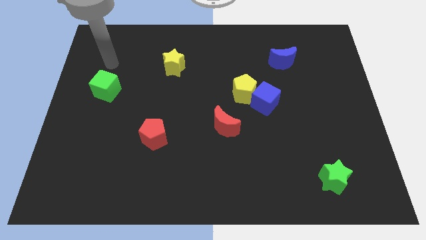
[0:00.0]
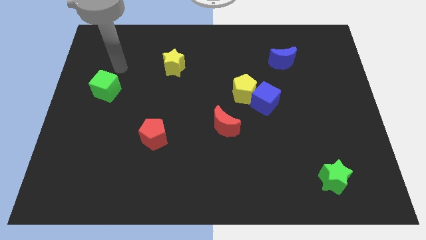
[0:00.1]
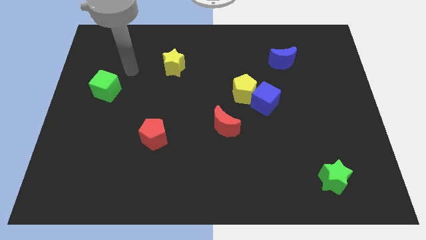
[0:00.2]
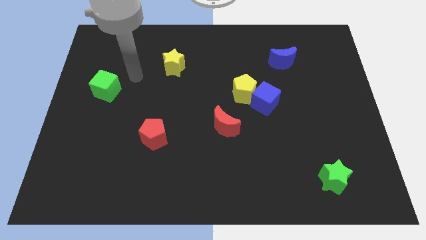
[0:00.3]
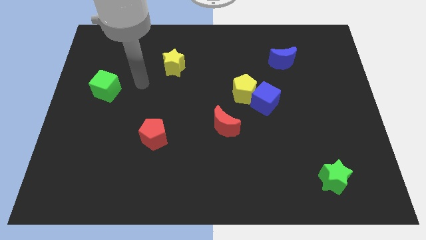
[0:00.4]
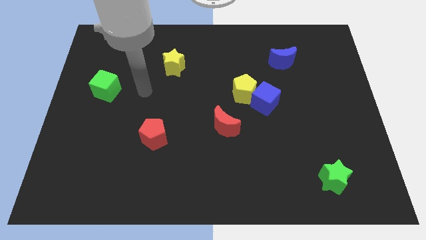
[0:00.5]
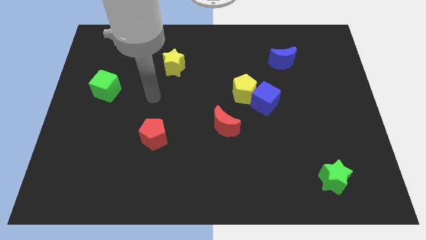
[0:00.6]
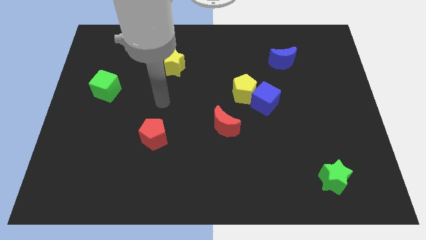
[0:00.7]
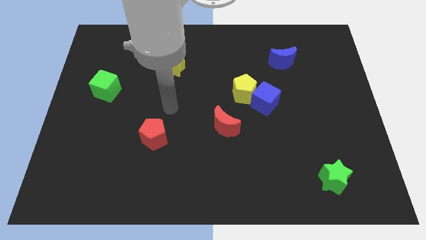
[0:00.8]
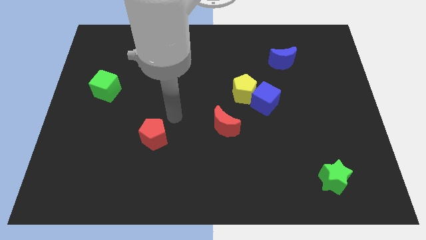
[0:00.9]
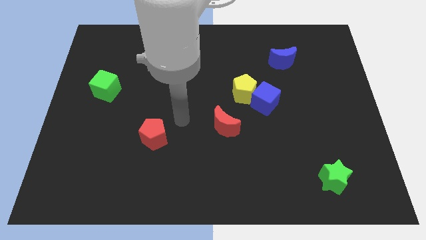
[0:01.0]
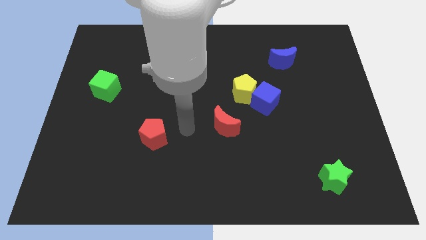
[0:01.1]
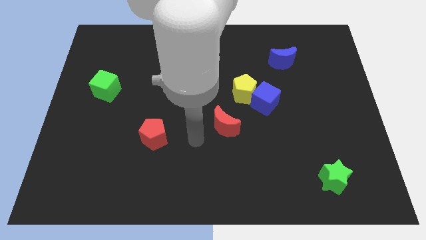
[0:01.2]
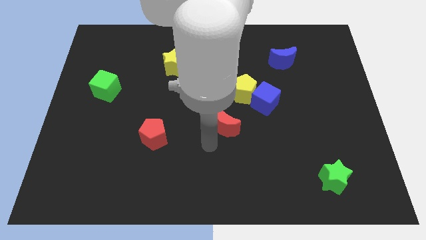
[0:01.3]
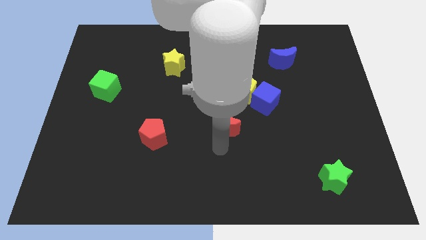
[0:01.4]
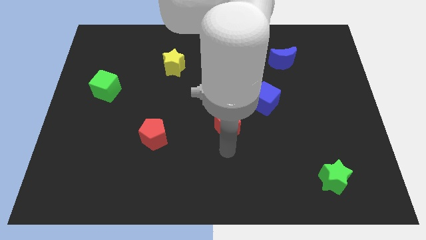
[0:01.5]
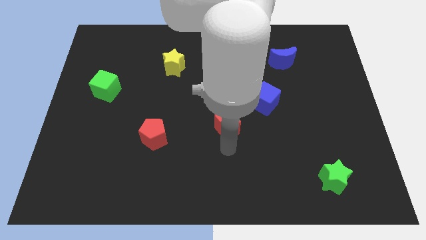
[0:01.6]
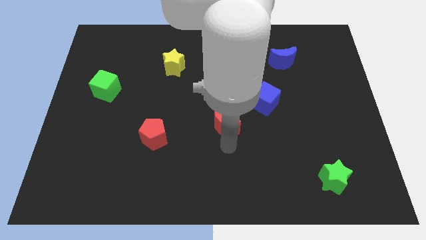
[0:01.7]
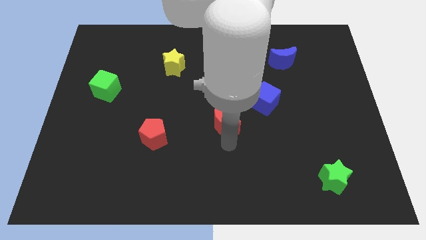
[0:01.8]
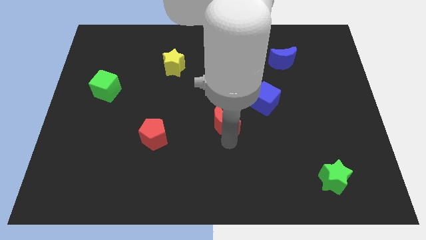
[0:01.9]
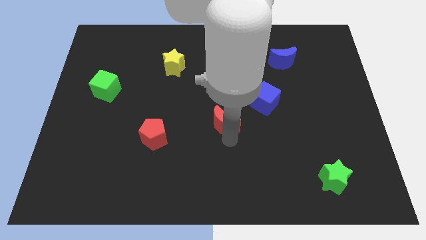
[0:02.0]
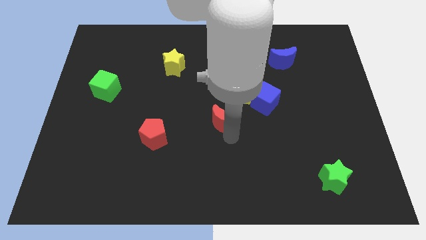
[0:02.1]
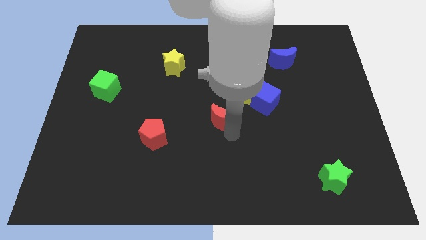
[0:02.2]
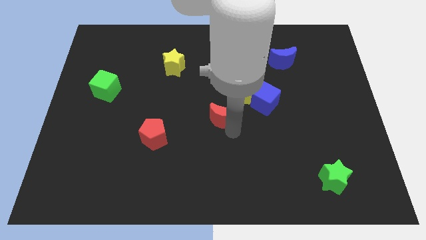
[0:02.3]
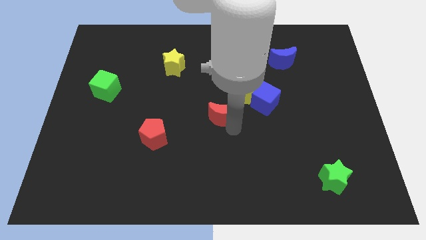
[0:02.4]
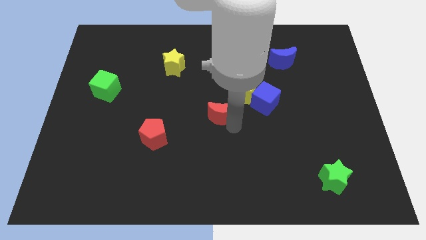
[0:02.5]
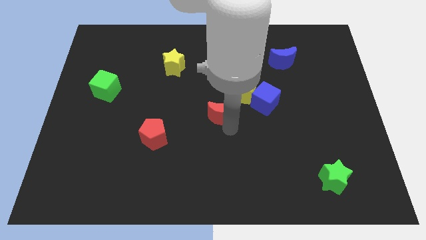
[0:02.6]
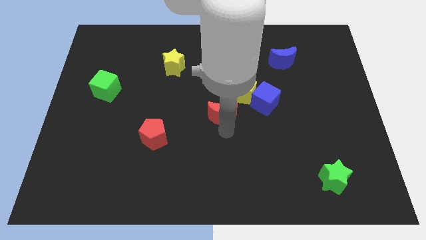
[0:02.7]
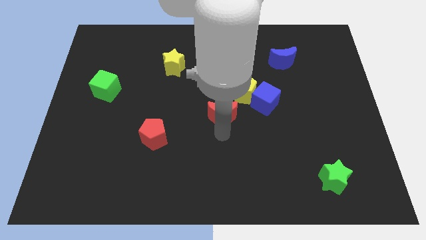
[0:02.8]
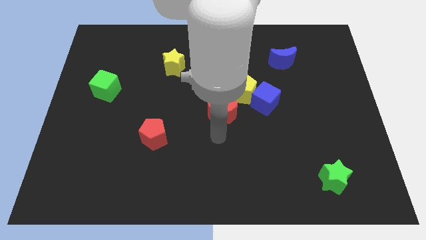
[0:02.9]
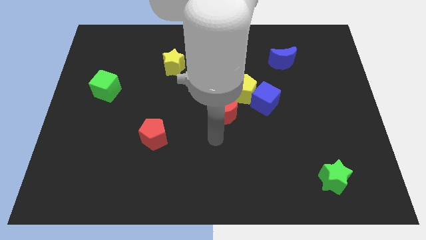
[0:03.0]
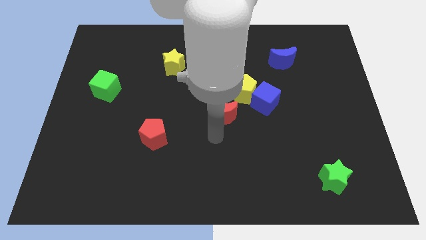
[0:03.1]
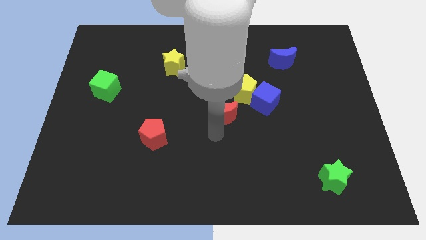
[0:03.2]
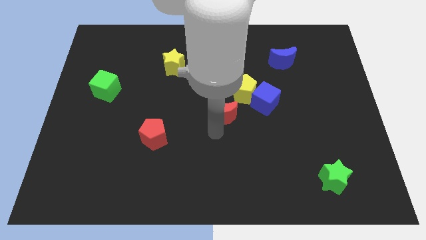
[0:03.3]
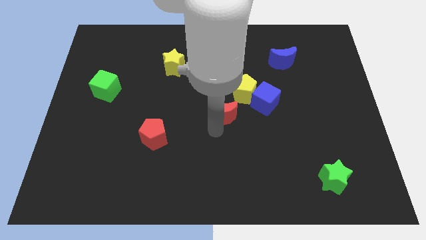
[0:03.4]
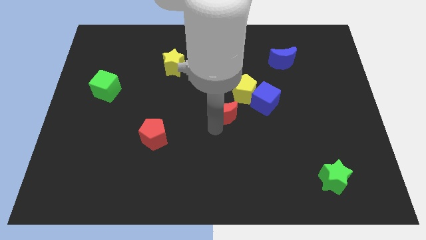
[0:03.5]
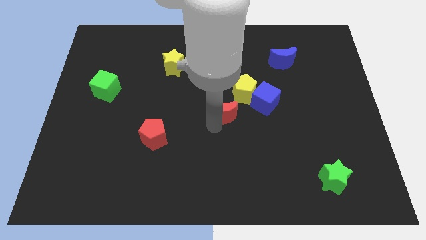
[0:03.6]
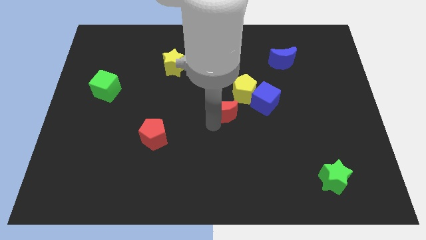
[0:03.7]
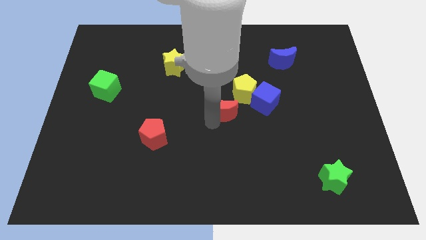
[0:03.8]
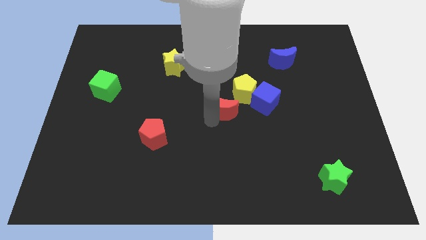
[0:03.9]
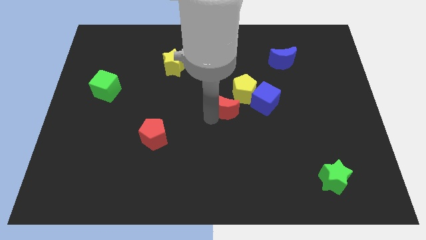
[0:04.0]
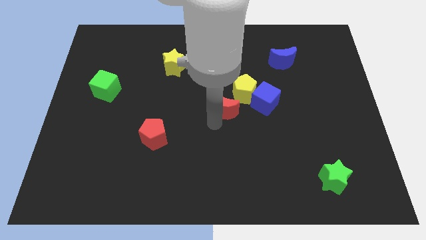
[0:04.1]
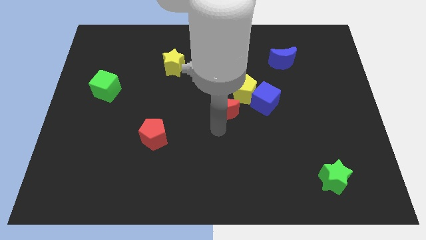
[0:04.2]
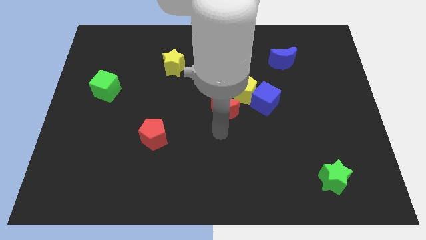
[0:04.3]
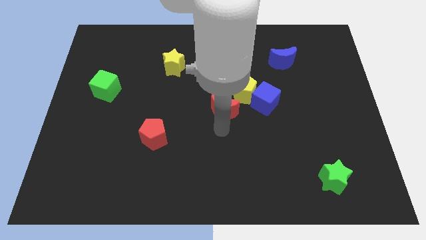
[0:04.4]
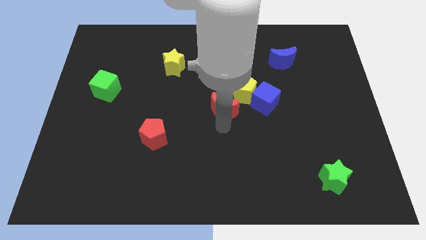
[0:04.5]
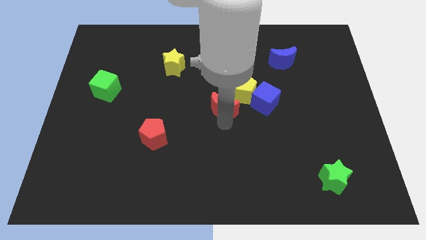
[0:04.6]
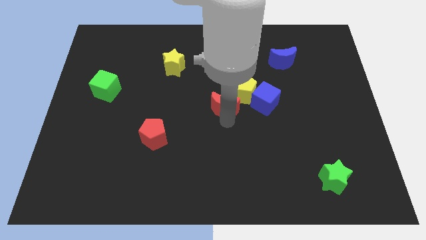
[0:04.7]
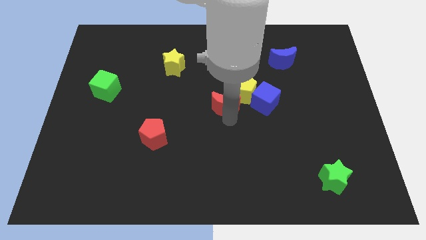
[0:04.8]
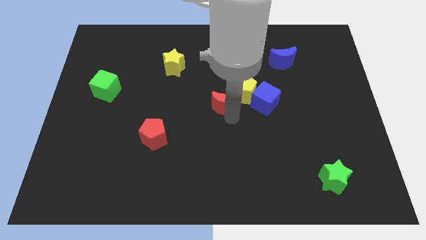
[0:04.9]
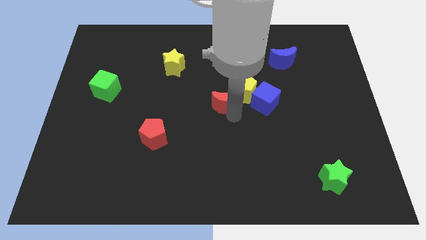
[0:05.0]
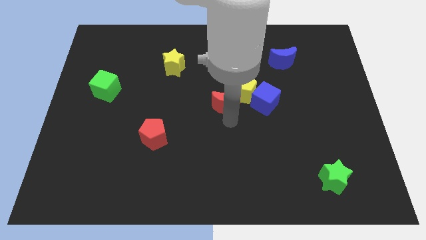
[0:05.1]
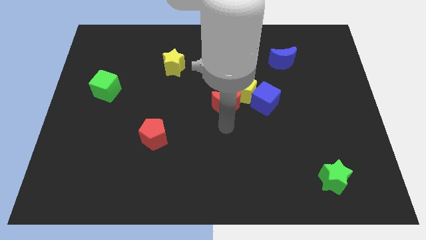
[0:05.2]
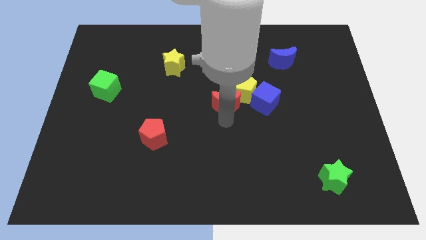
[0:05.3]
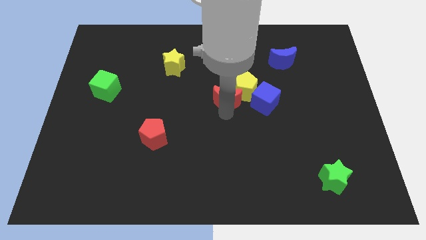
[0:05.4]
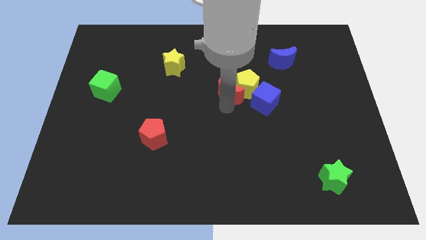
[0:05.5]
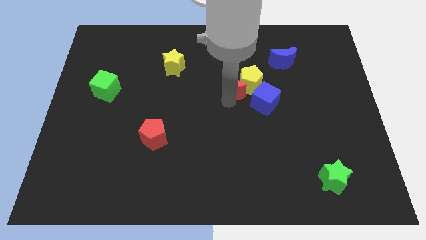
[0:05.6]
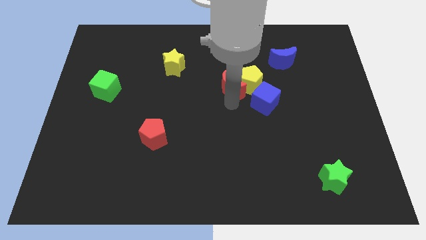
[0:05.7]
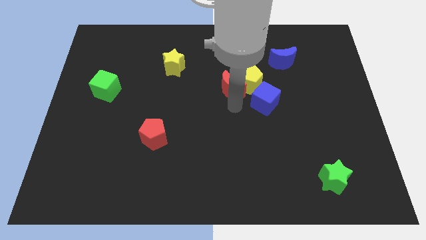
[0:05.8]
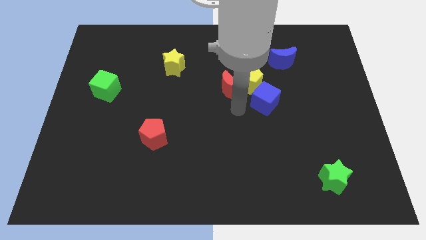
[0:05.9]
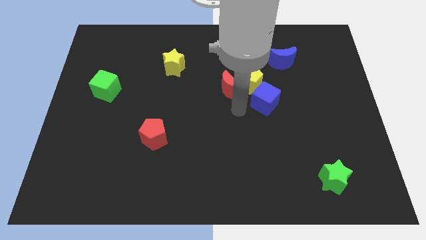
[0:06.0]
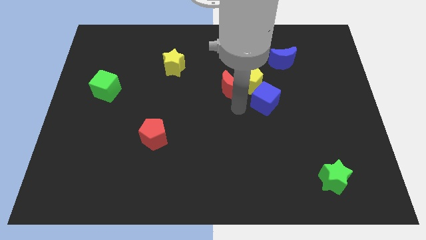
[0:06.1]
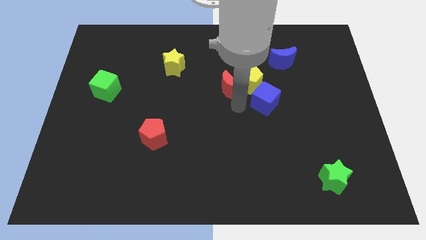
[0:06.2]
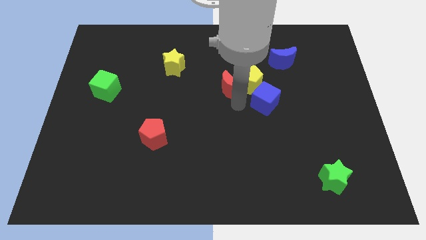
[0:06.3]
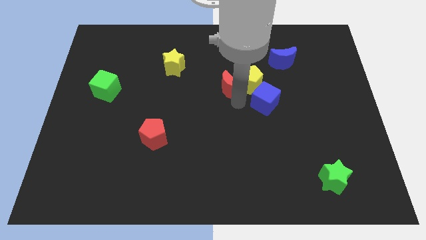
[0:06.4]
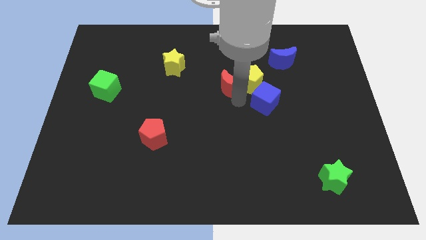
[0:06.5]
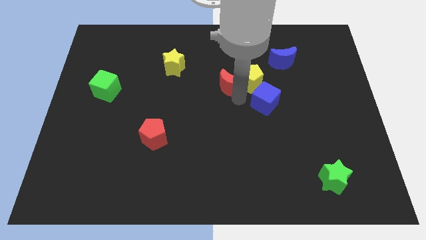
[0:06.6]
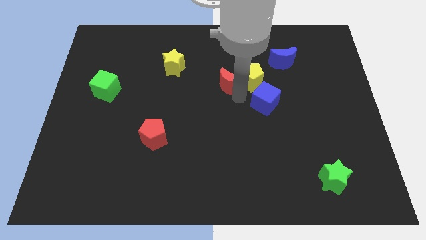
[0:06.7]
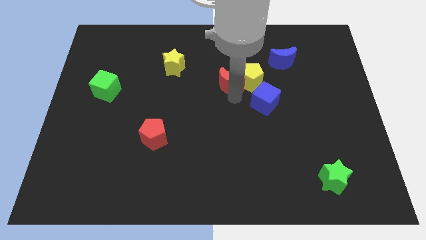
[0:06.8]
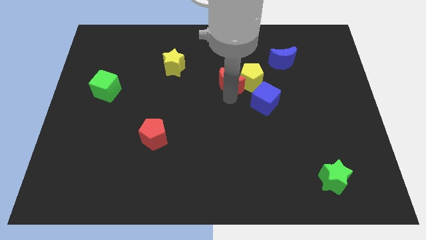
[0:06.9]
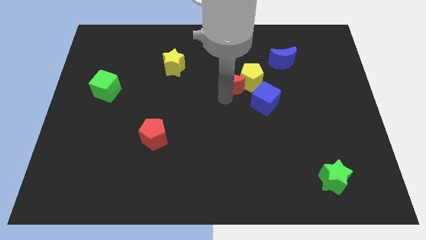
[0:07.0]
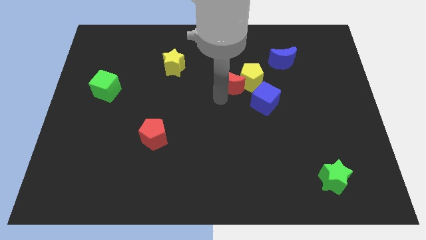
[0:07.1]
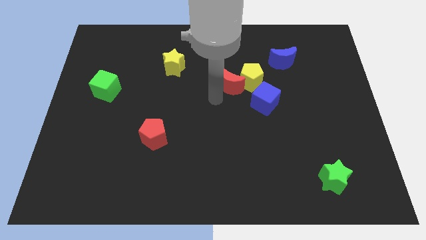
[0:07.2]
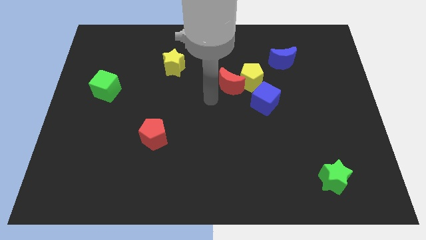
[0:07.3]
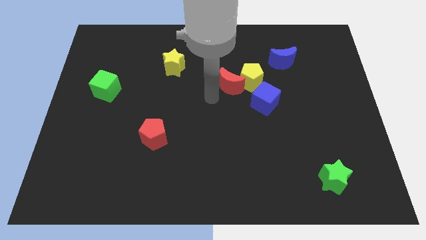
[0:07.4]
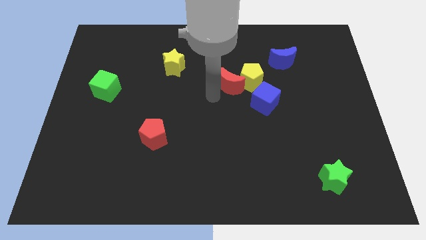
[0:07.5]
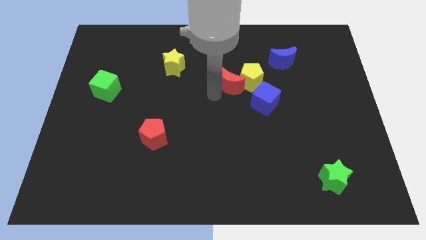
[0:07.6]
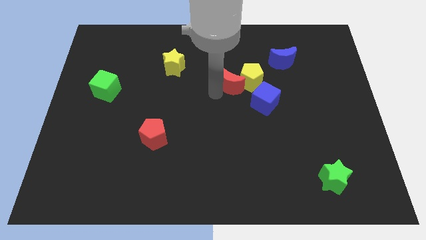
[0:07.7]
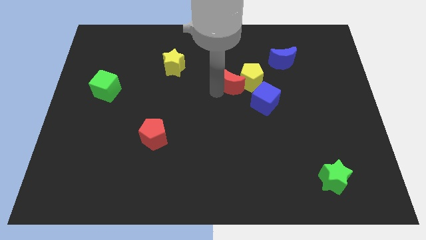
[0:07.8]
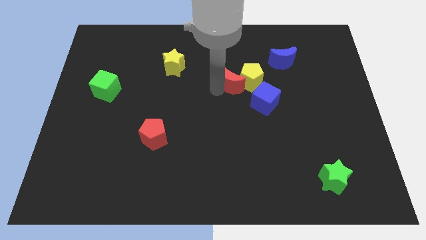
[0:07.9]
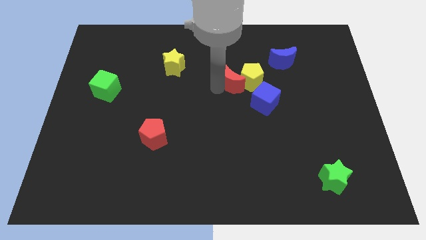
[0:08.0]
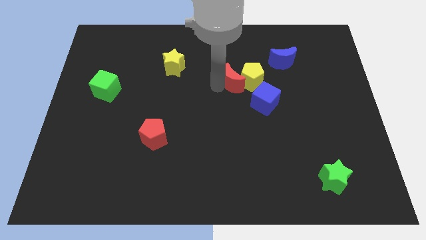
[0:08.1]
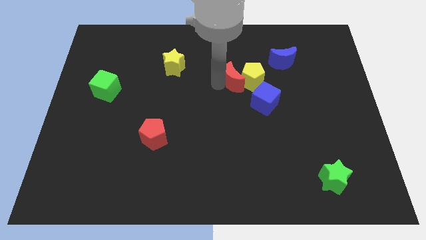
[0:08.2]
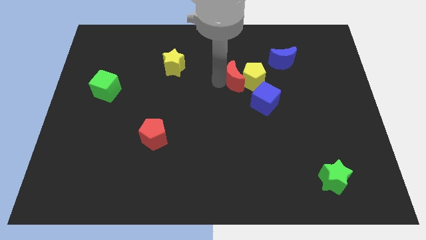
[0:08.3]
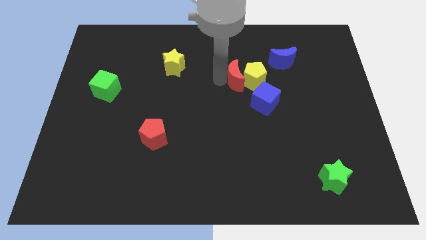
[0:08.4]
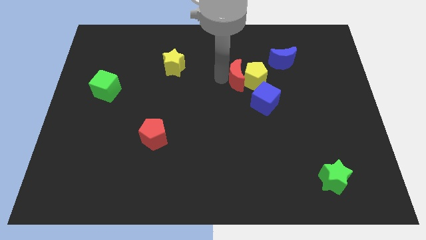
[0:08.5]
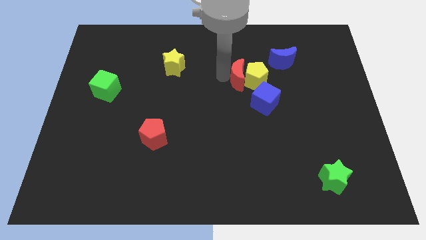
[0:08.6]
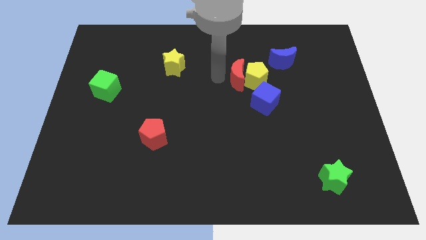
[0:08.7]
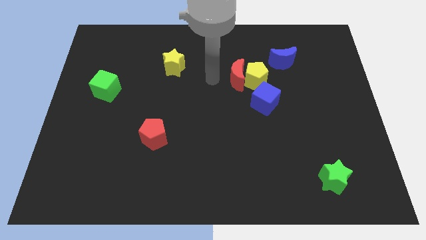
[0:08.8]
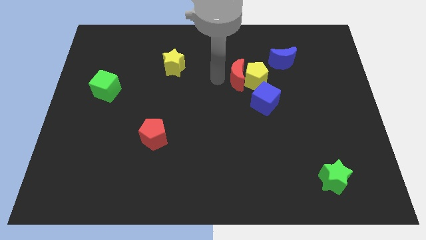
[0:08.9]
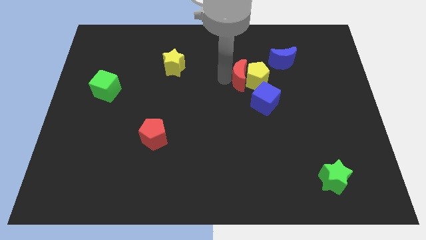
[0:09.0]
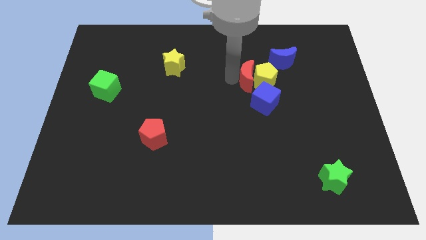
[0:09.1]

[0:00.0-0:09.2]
push the red moon to the bottom left of the blue moon
